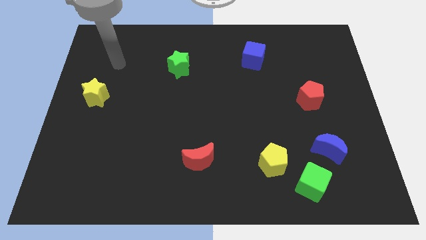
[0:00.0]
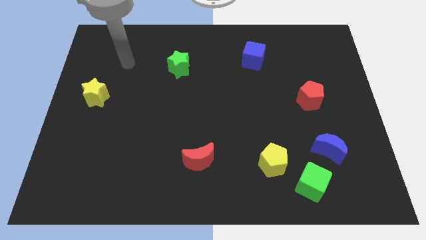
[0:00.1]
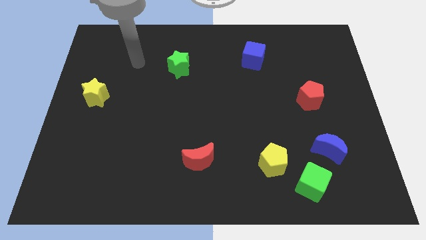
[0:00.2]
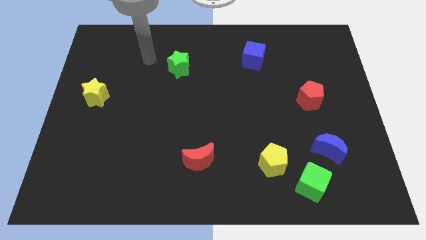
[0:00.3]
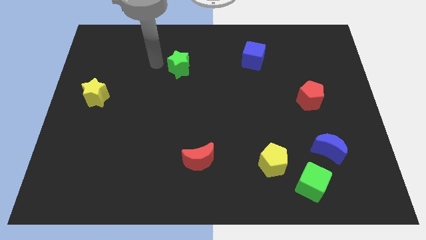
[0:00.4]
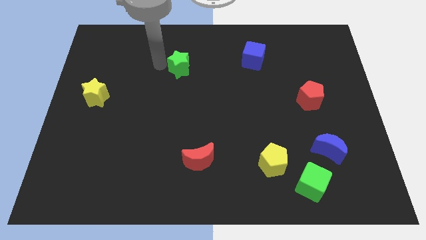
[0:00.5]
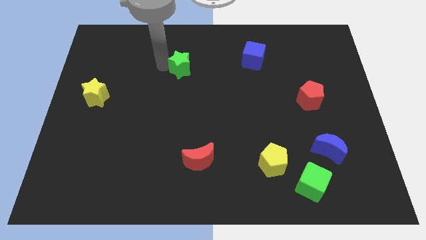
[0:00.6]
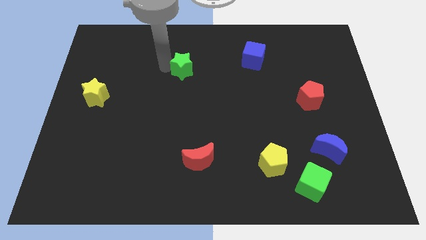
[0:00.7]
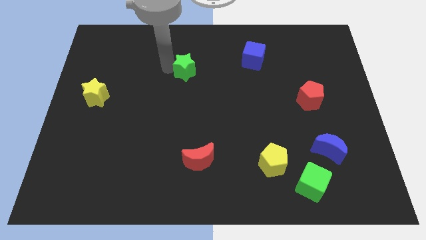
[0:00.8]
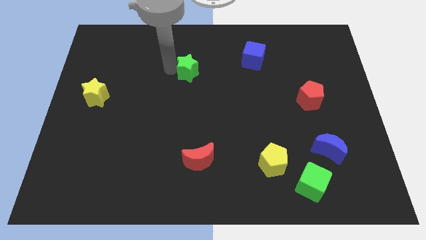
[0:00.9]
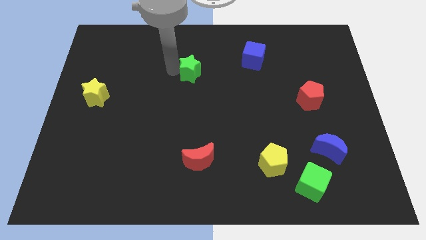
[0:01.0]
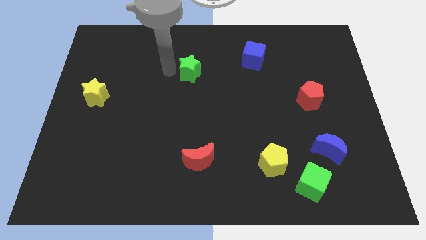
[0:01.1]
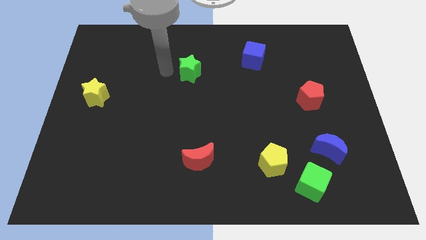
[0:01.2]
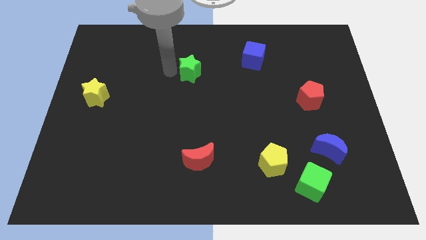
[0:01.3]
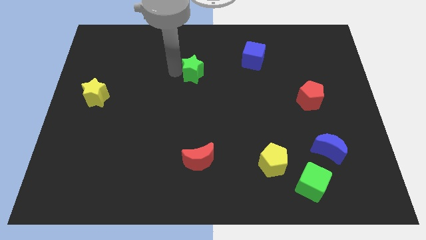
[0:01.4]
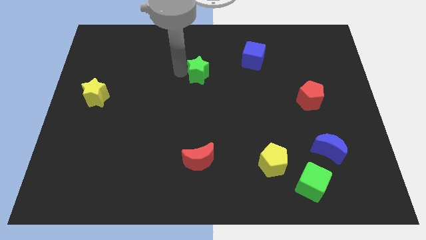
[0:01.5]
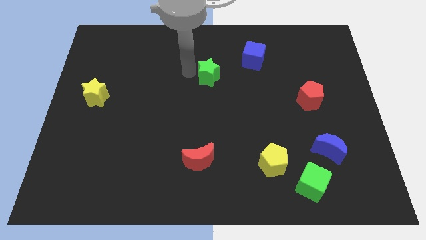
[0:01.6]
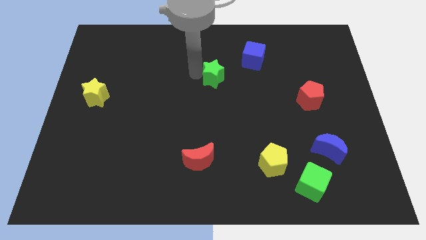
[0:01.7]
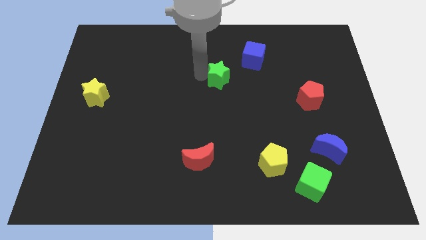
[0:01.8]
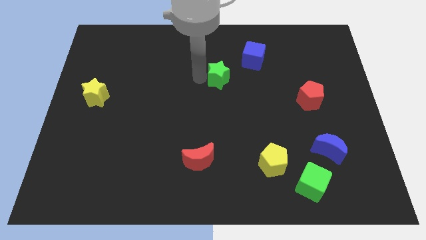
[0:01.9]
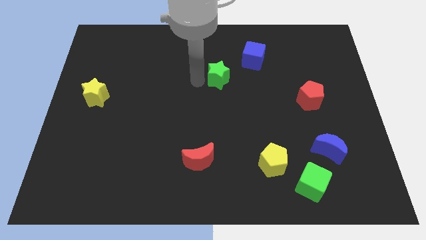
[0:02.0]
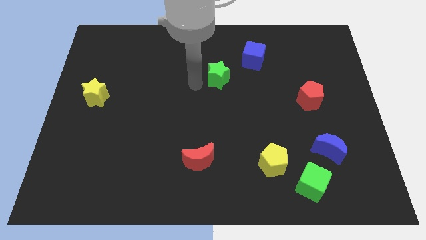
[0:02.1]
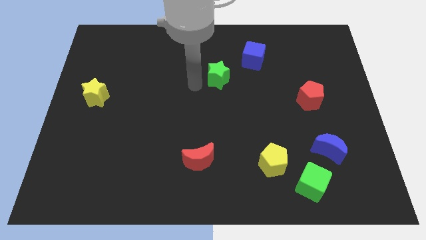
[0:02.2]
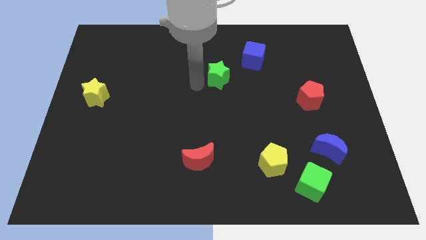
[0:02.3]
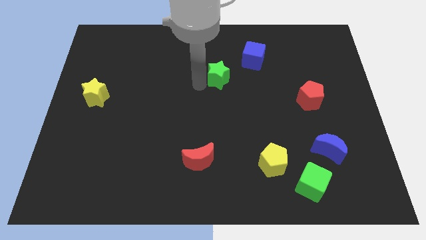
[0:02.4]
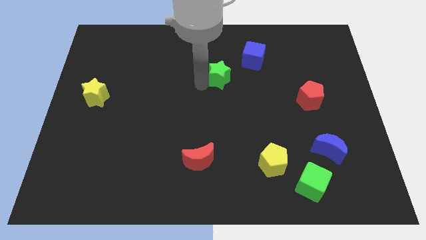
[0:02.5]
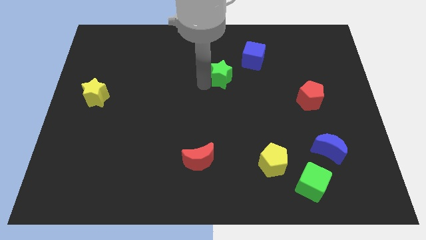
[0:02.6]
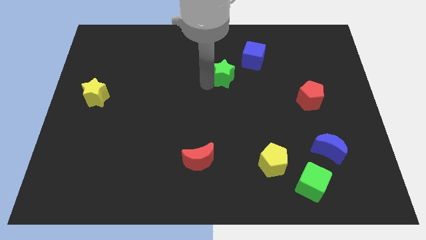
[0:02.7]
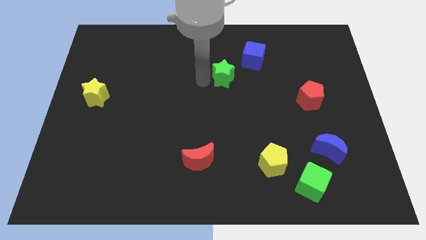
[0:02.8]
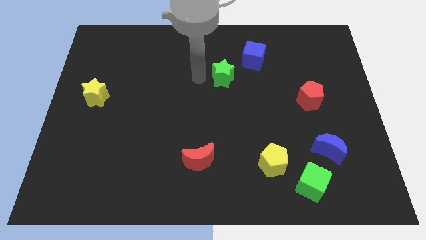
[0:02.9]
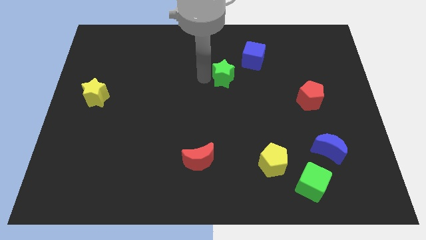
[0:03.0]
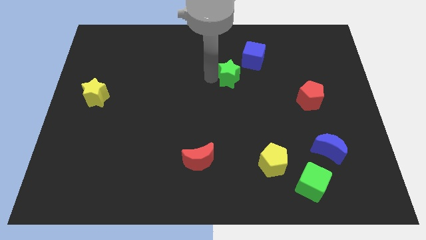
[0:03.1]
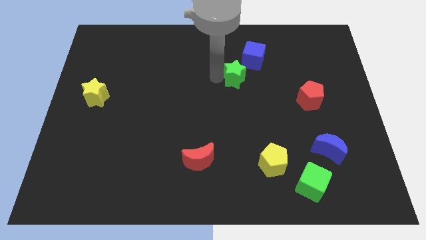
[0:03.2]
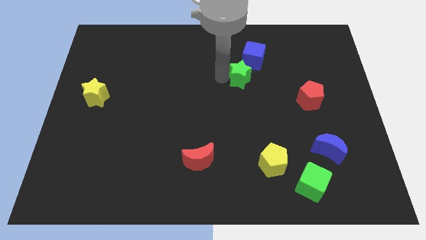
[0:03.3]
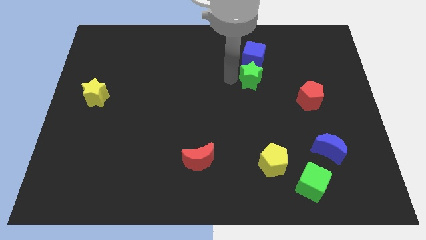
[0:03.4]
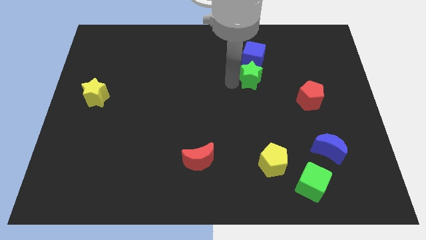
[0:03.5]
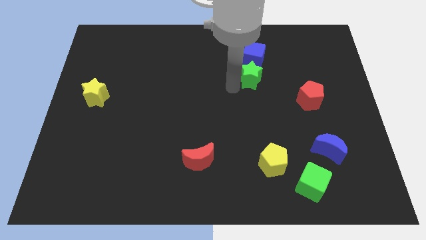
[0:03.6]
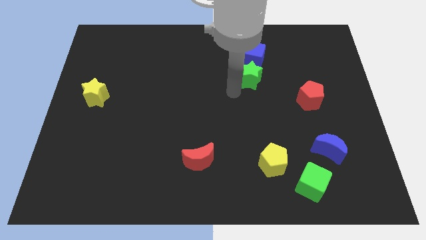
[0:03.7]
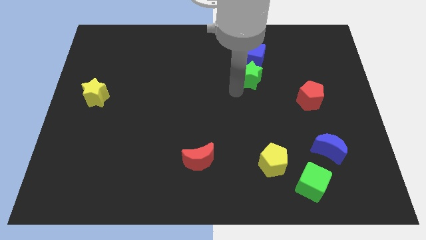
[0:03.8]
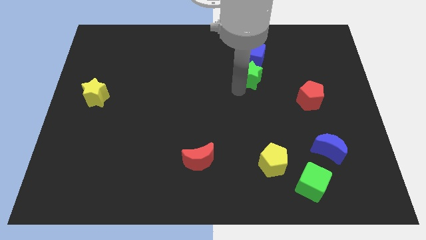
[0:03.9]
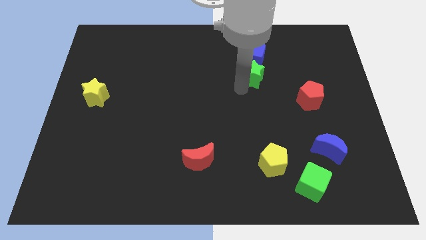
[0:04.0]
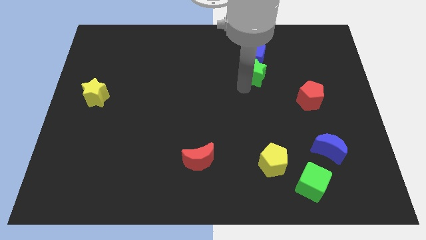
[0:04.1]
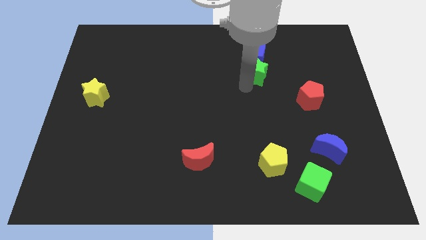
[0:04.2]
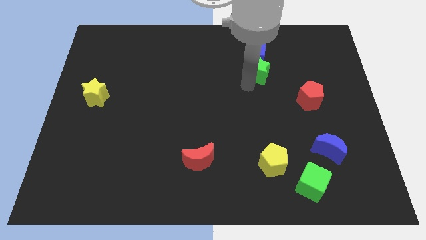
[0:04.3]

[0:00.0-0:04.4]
move the green star to the right

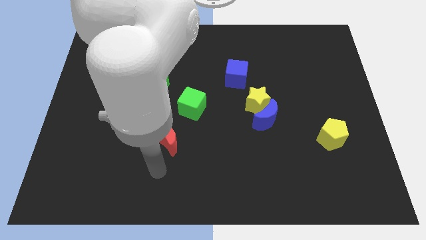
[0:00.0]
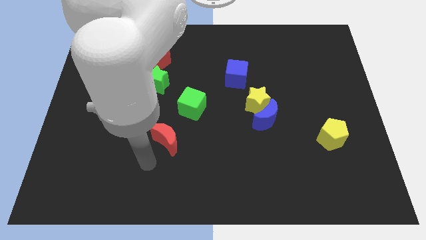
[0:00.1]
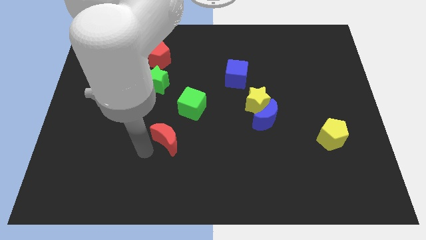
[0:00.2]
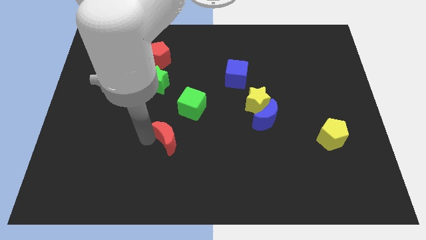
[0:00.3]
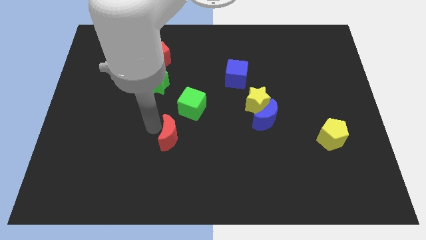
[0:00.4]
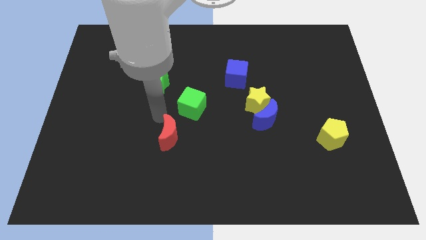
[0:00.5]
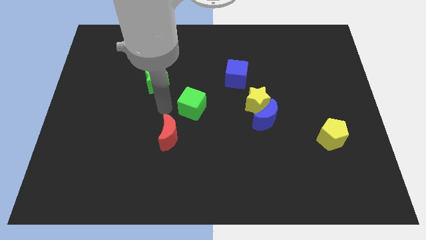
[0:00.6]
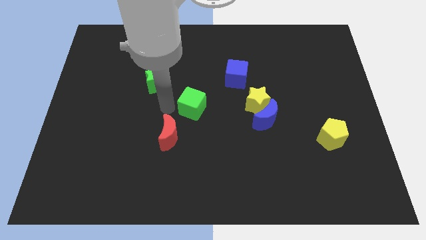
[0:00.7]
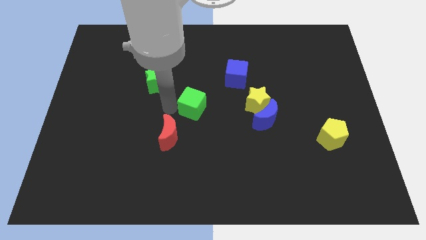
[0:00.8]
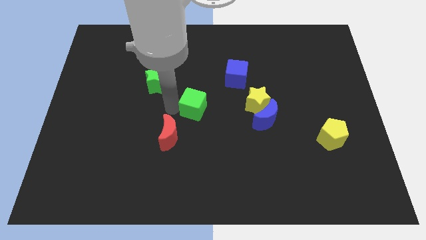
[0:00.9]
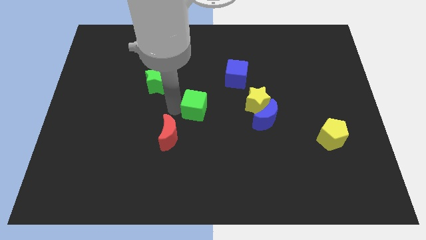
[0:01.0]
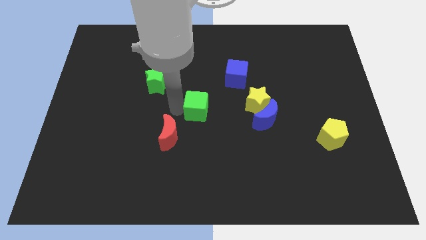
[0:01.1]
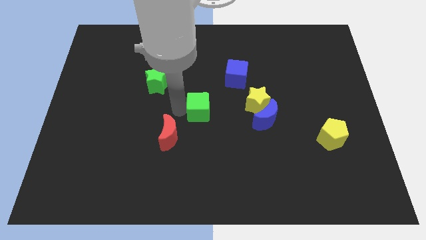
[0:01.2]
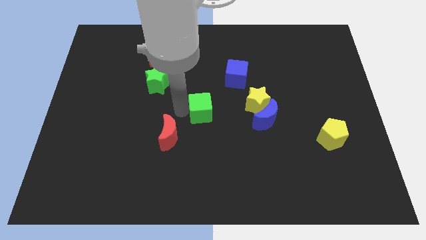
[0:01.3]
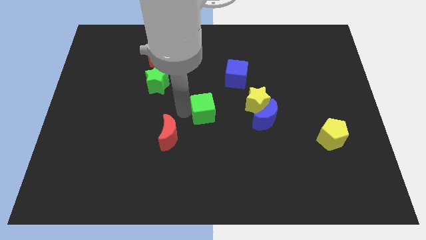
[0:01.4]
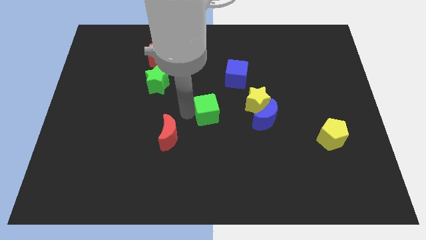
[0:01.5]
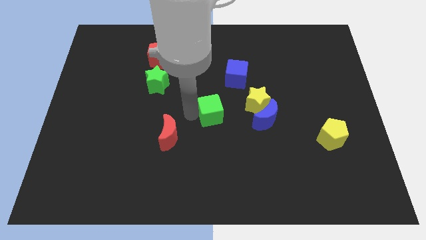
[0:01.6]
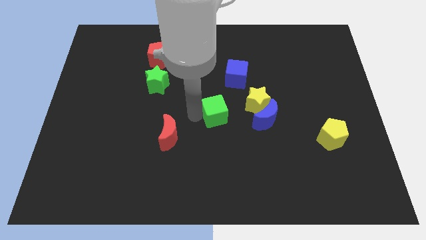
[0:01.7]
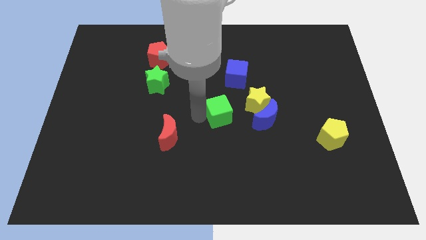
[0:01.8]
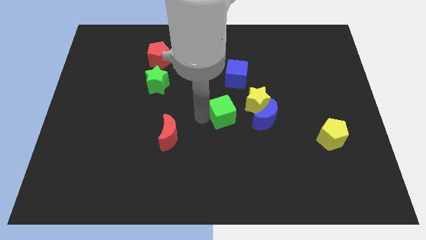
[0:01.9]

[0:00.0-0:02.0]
push the green cube right a little bit

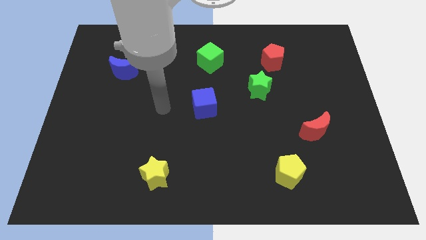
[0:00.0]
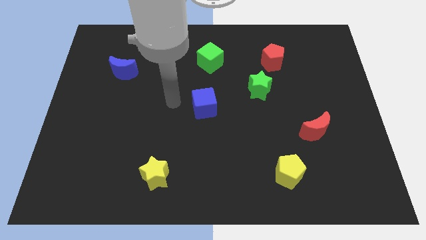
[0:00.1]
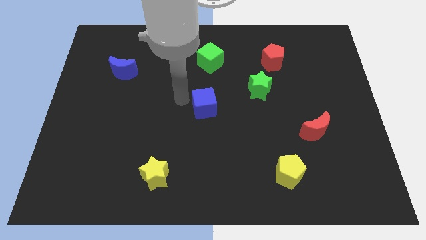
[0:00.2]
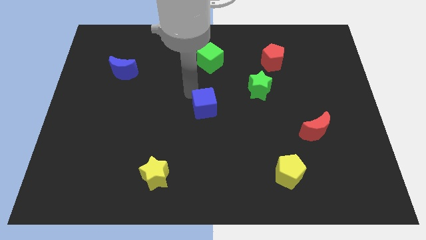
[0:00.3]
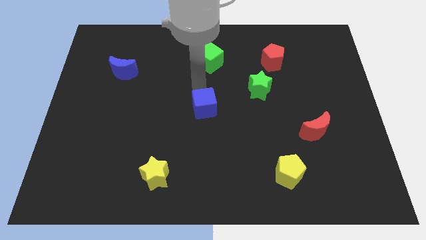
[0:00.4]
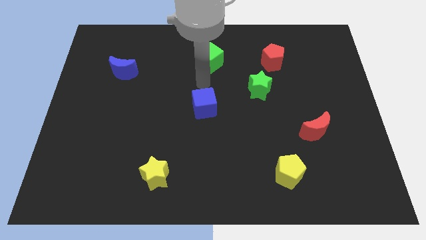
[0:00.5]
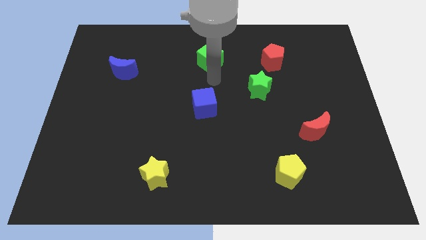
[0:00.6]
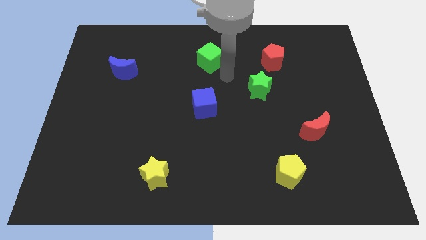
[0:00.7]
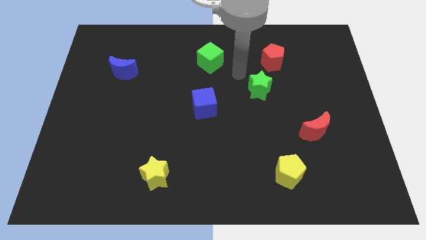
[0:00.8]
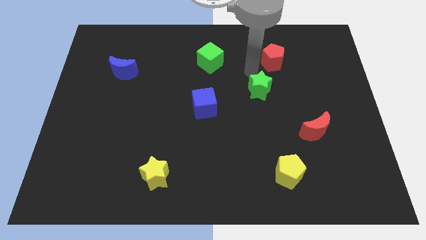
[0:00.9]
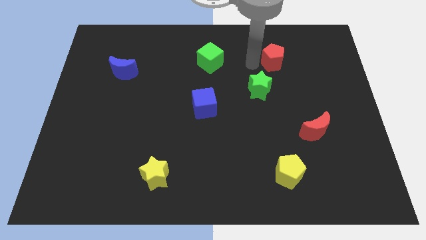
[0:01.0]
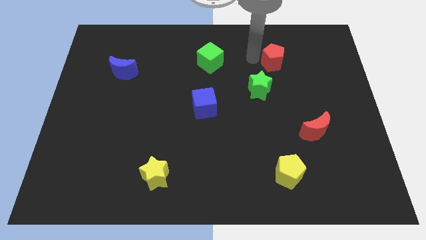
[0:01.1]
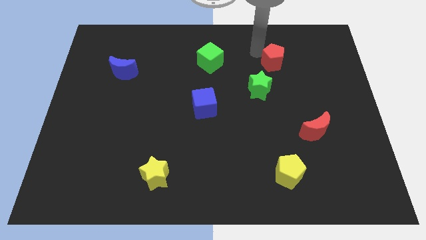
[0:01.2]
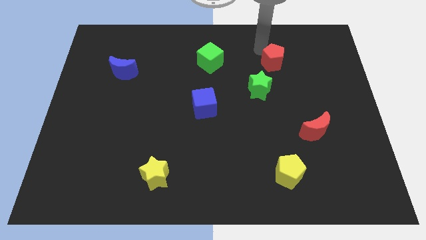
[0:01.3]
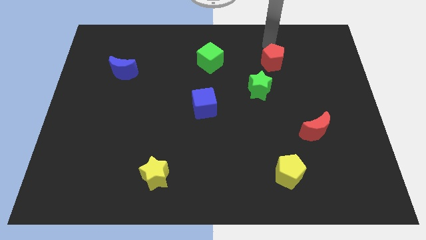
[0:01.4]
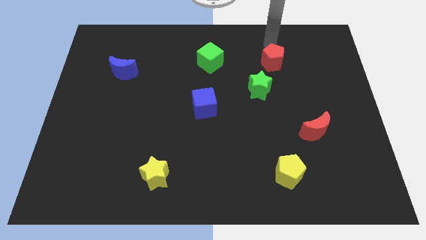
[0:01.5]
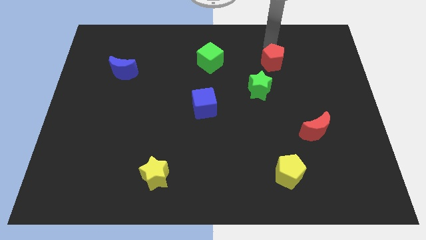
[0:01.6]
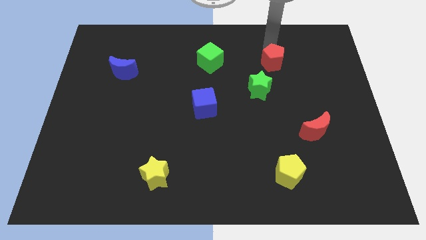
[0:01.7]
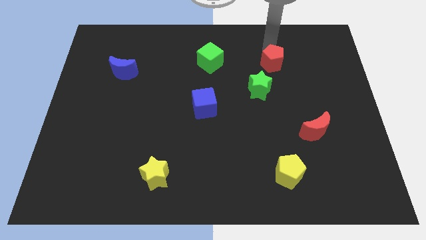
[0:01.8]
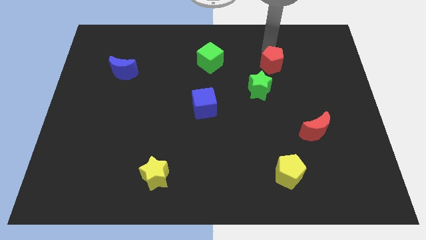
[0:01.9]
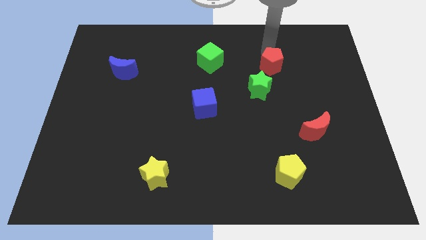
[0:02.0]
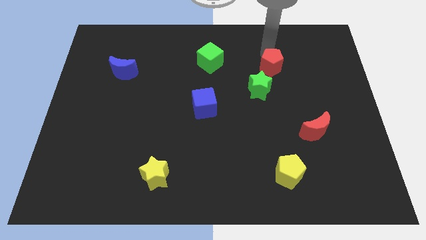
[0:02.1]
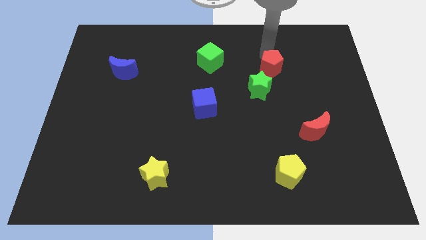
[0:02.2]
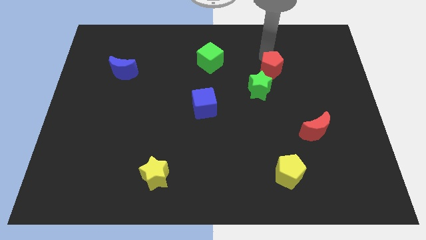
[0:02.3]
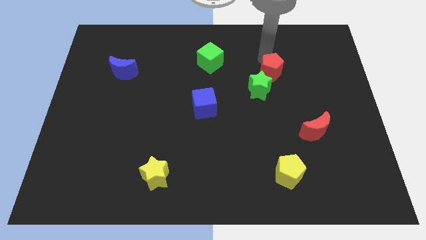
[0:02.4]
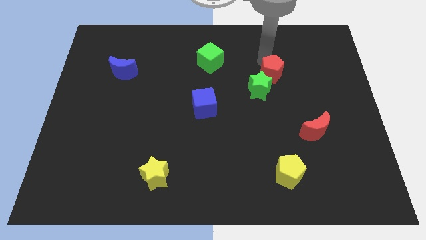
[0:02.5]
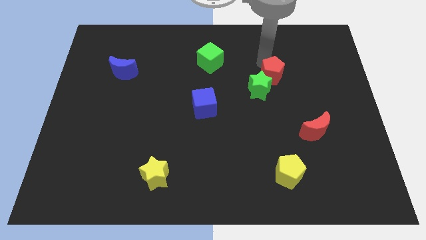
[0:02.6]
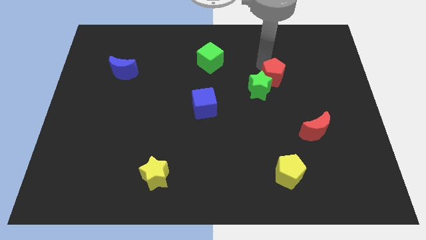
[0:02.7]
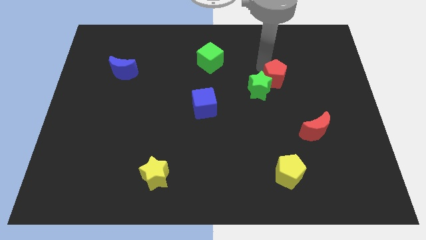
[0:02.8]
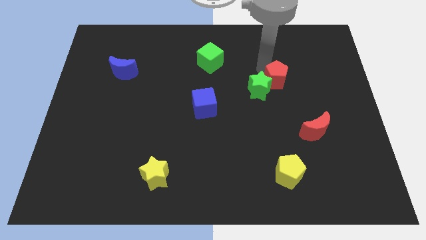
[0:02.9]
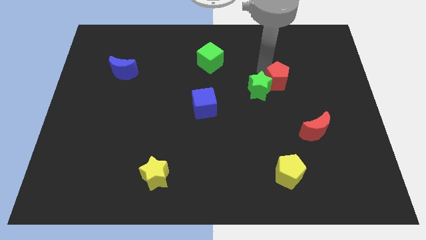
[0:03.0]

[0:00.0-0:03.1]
push the red pentagon downwards somewhat
